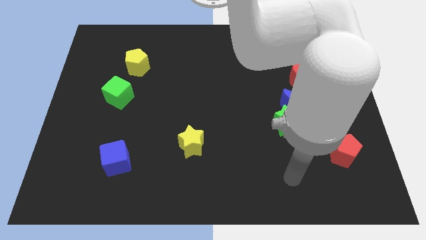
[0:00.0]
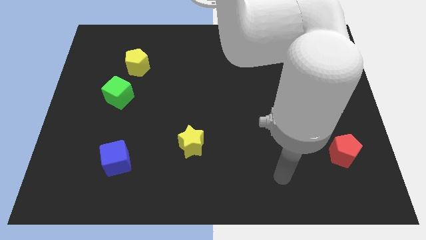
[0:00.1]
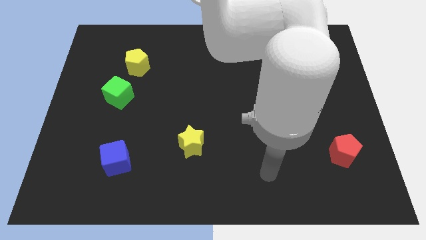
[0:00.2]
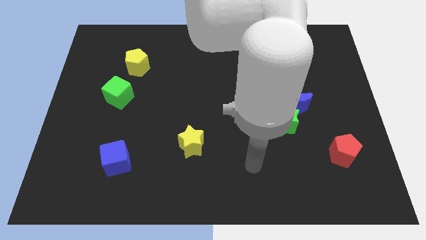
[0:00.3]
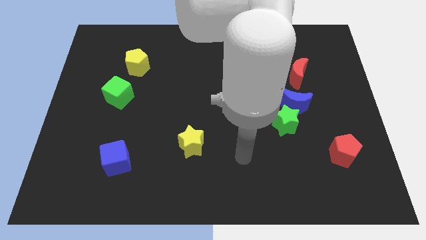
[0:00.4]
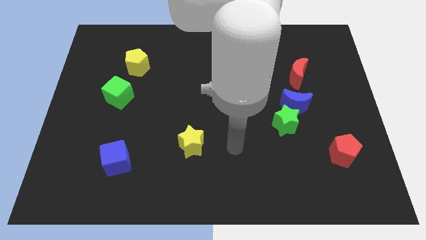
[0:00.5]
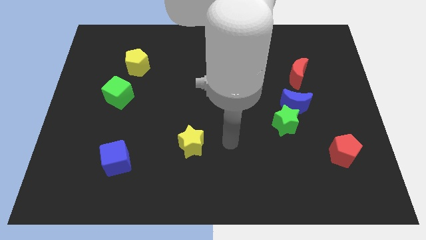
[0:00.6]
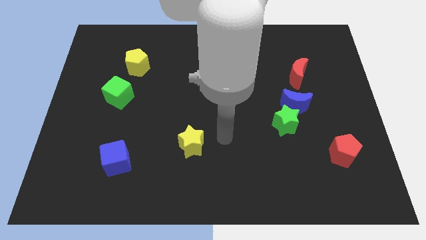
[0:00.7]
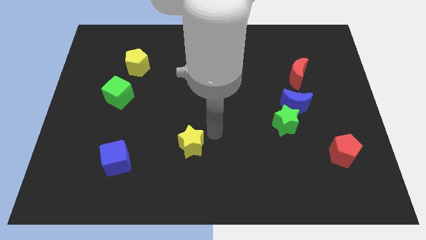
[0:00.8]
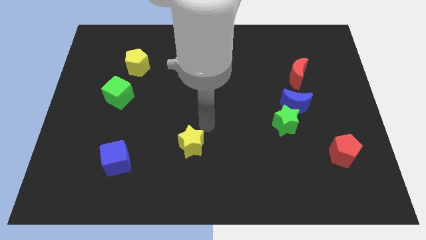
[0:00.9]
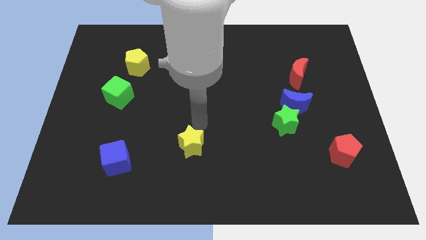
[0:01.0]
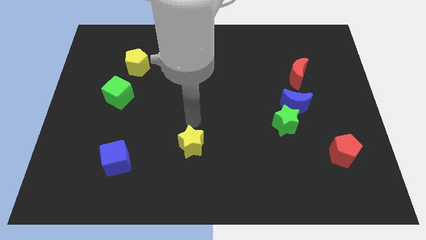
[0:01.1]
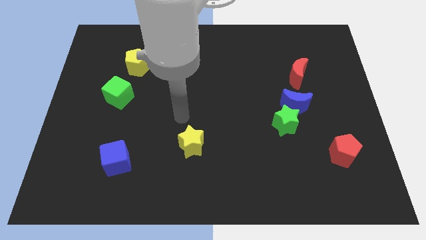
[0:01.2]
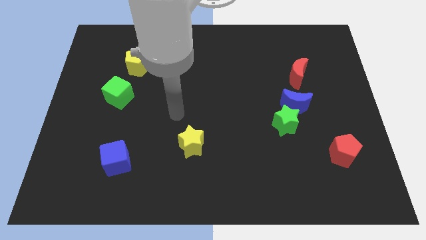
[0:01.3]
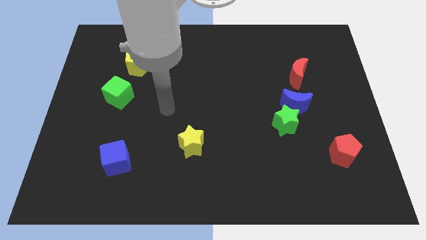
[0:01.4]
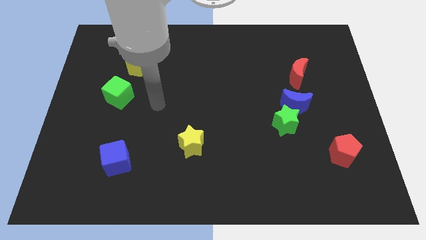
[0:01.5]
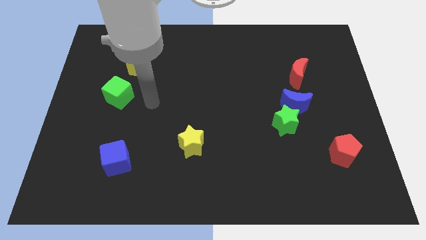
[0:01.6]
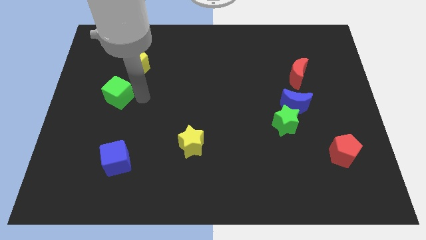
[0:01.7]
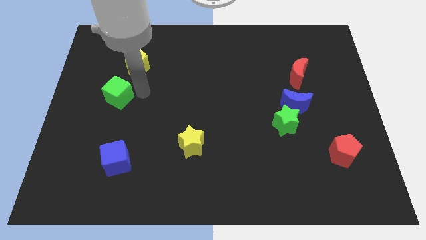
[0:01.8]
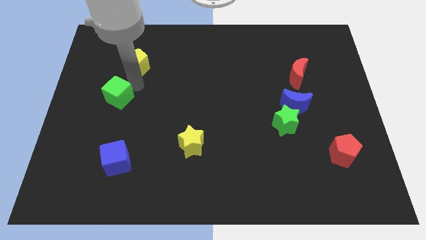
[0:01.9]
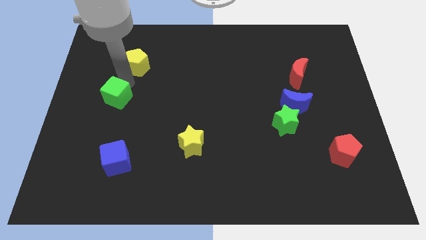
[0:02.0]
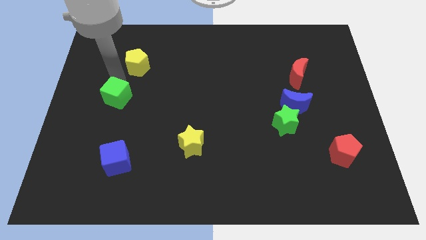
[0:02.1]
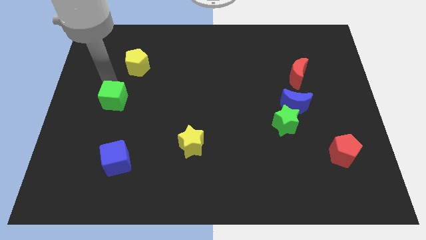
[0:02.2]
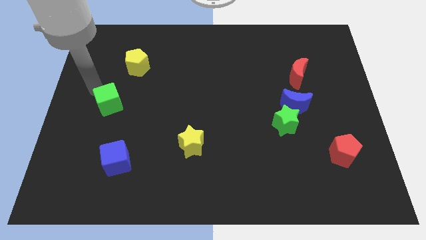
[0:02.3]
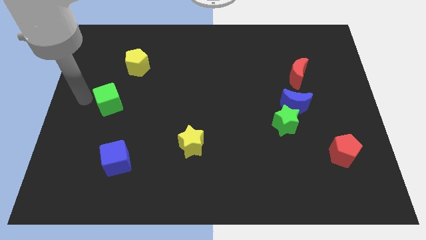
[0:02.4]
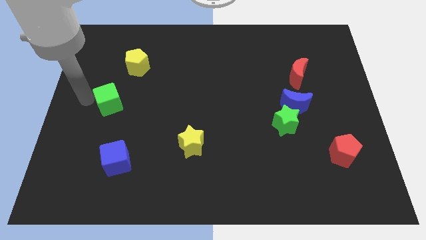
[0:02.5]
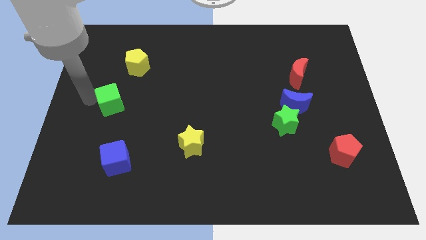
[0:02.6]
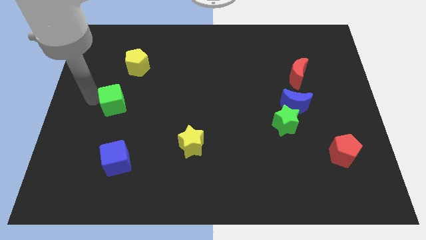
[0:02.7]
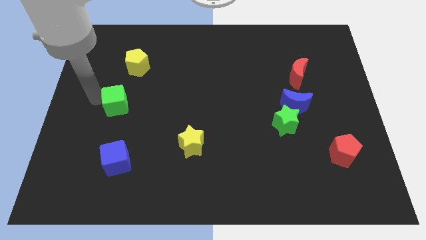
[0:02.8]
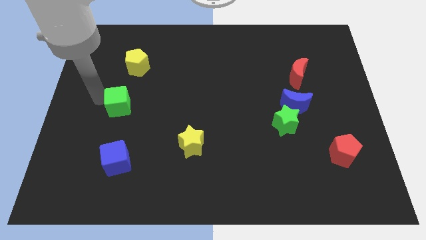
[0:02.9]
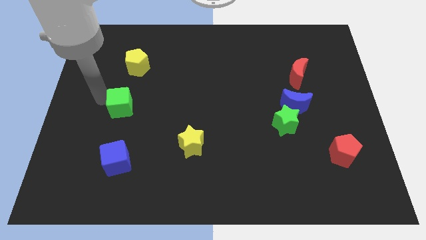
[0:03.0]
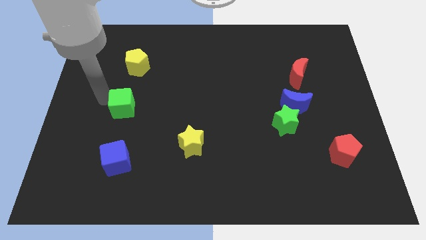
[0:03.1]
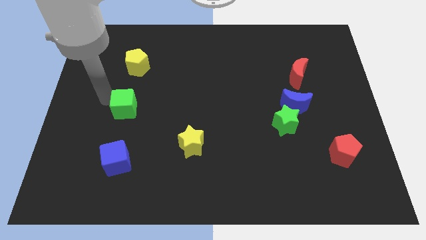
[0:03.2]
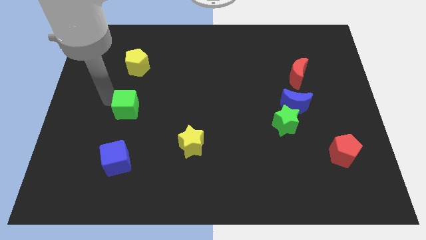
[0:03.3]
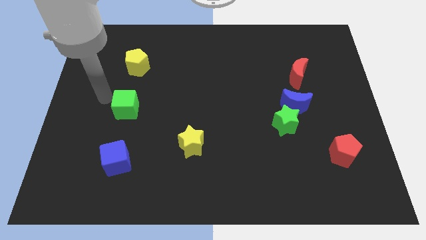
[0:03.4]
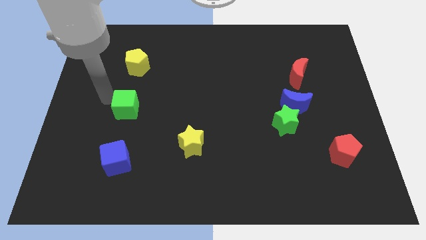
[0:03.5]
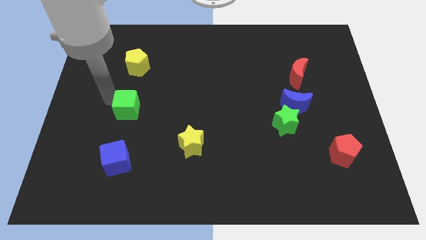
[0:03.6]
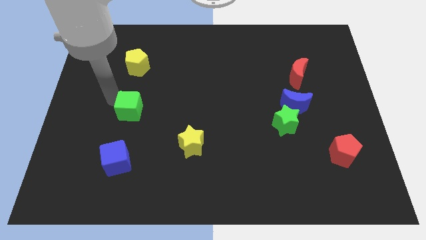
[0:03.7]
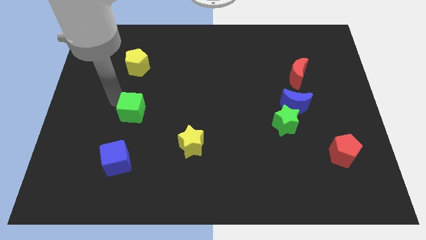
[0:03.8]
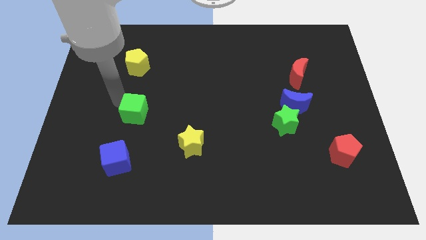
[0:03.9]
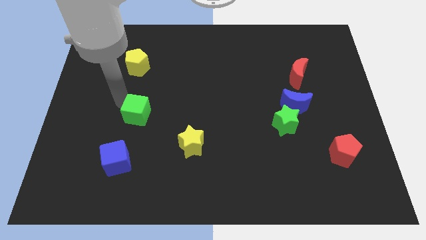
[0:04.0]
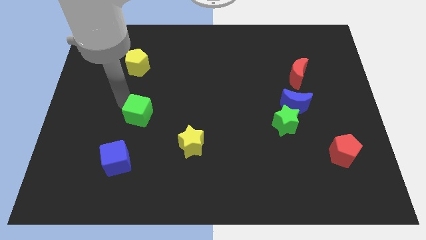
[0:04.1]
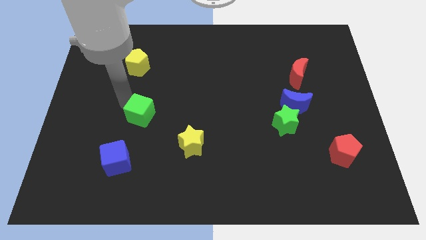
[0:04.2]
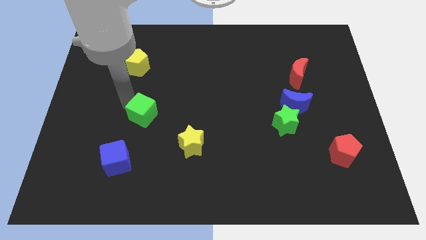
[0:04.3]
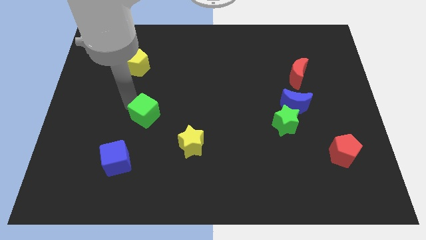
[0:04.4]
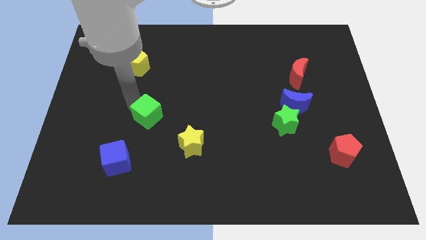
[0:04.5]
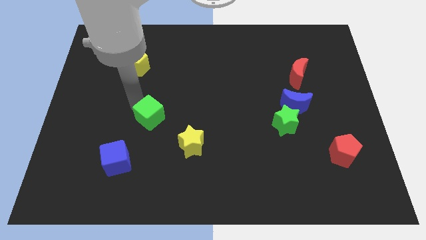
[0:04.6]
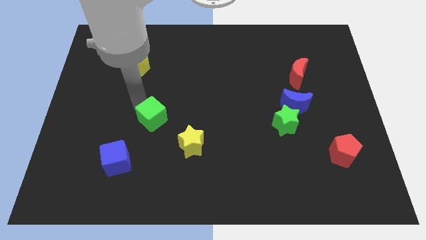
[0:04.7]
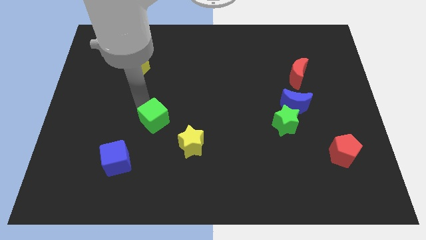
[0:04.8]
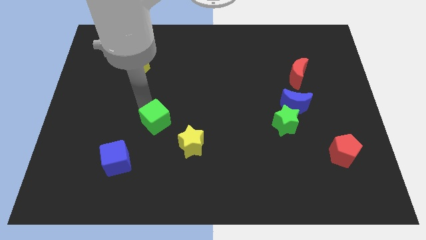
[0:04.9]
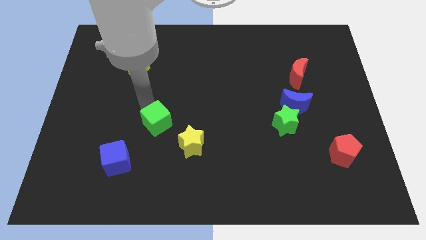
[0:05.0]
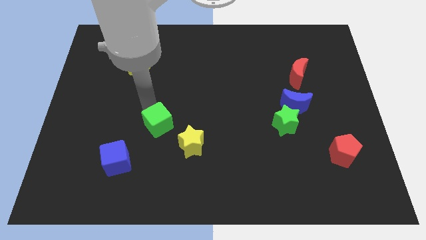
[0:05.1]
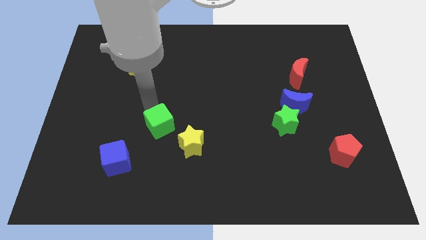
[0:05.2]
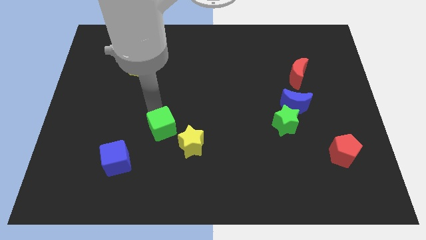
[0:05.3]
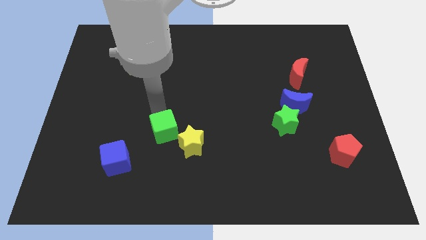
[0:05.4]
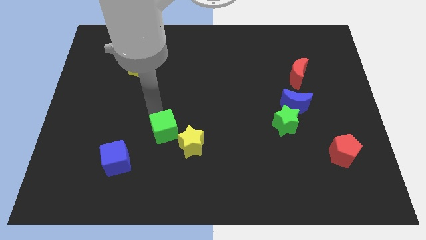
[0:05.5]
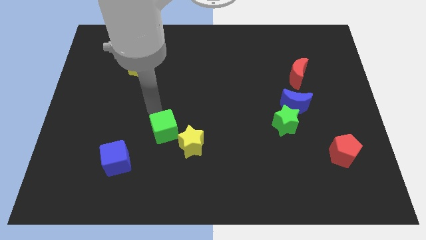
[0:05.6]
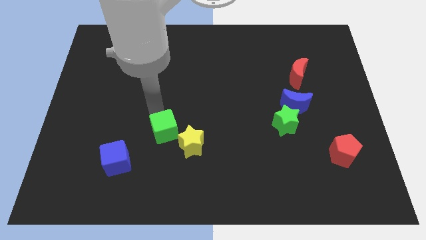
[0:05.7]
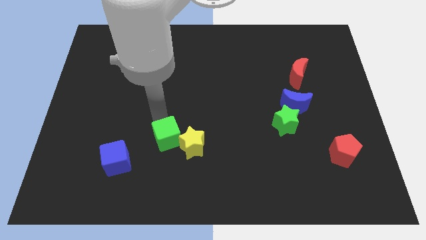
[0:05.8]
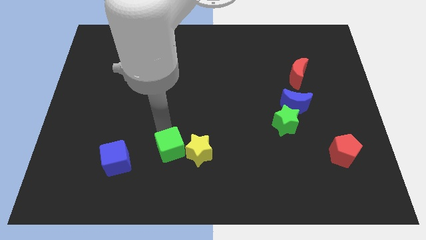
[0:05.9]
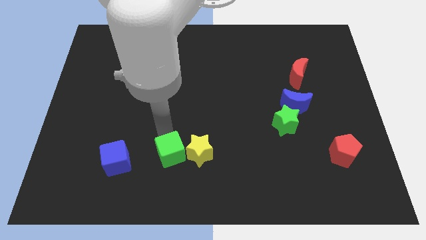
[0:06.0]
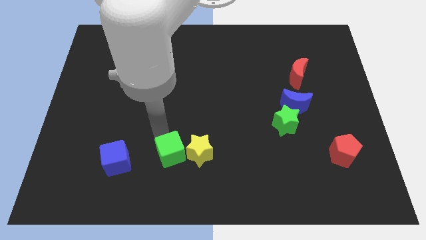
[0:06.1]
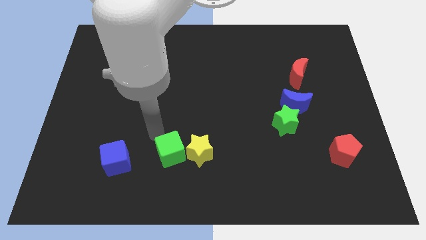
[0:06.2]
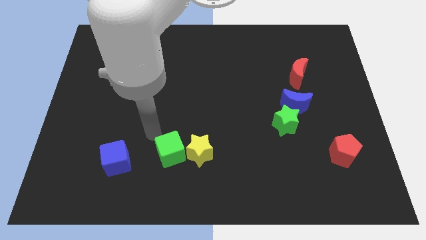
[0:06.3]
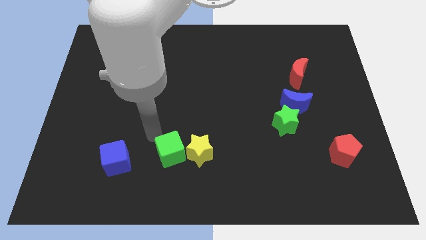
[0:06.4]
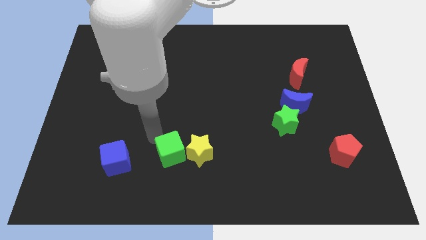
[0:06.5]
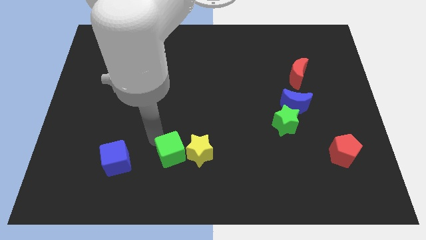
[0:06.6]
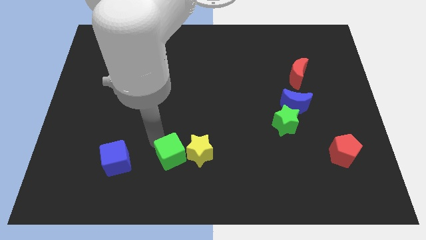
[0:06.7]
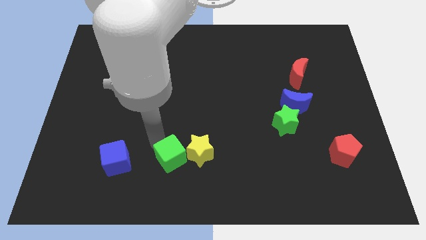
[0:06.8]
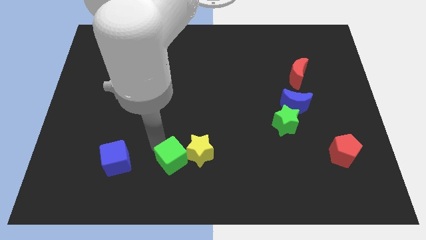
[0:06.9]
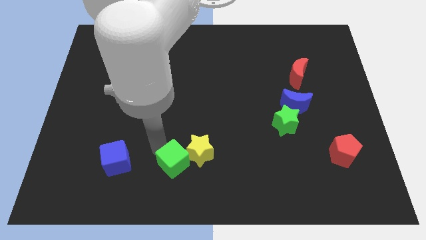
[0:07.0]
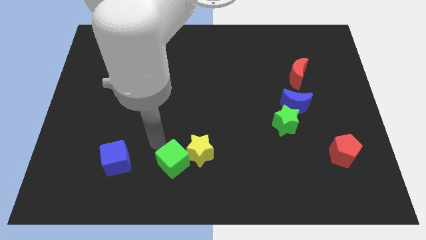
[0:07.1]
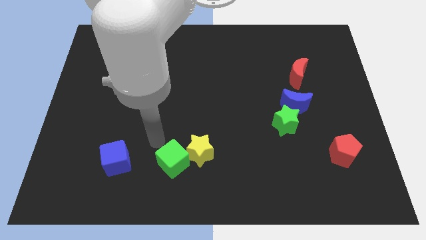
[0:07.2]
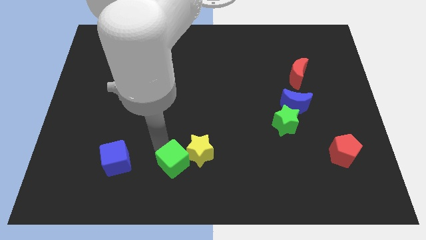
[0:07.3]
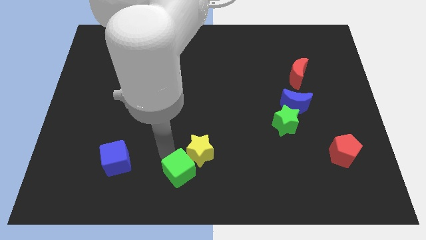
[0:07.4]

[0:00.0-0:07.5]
push the green cube to the bottom side
